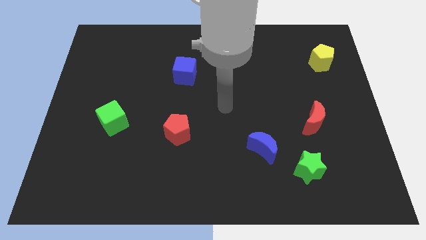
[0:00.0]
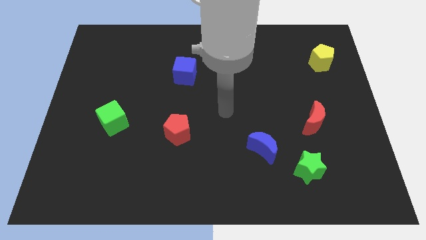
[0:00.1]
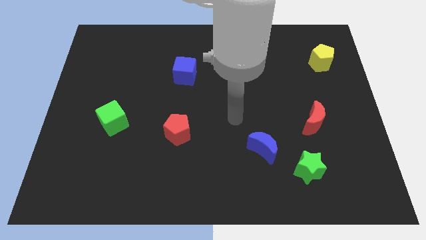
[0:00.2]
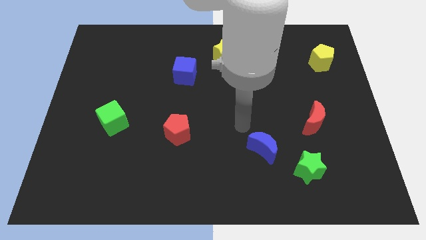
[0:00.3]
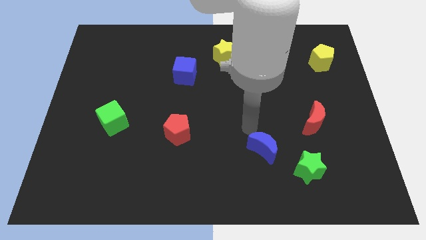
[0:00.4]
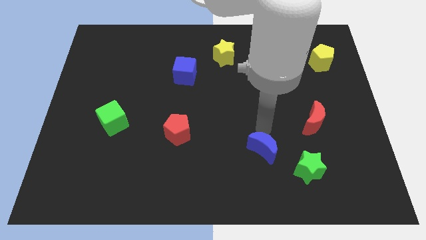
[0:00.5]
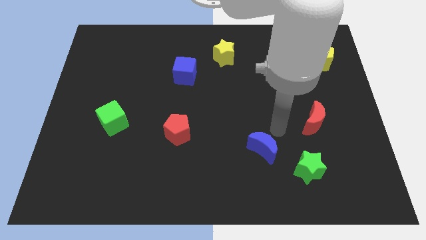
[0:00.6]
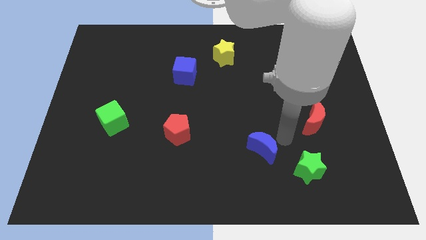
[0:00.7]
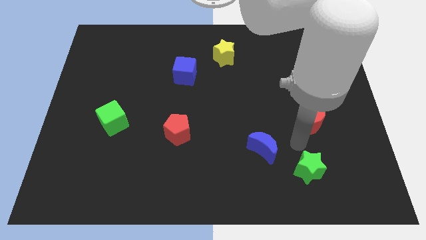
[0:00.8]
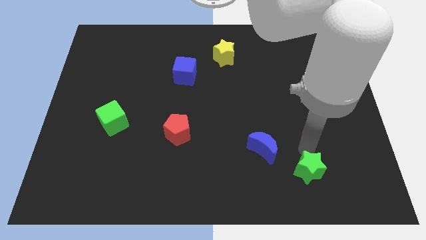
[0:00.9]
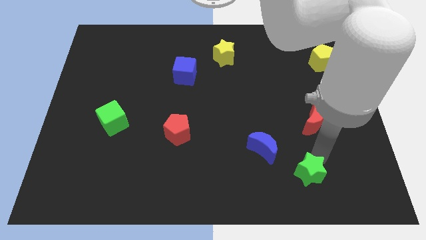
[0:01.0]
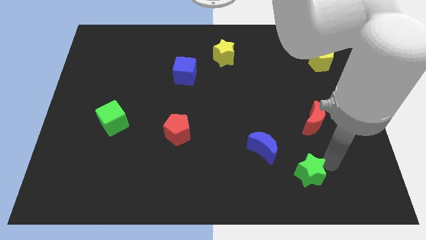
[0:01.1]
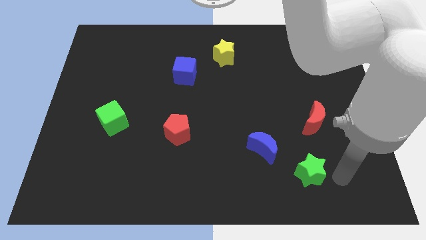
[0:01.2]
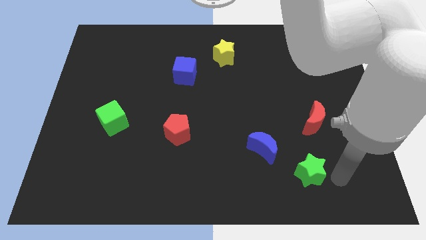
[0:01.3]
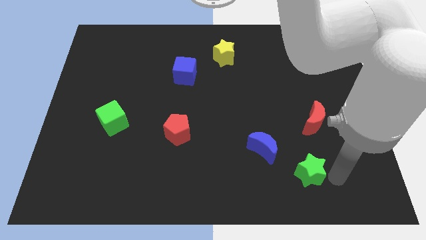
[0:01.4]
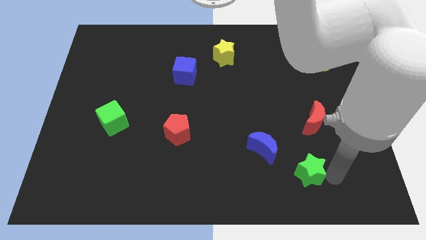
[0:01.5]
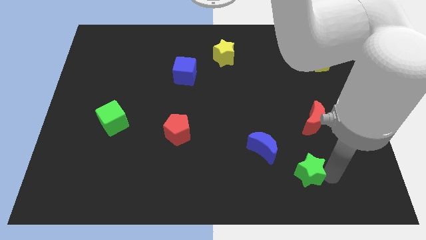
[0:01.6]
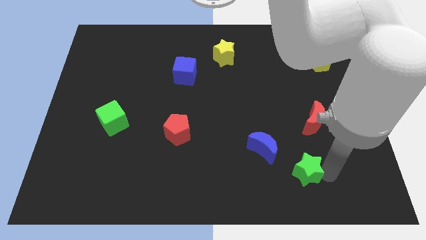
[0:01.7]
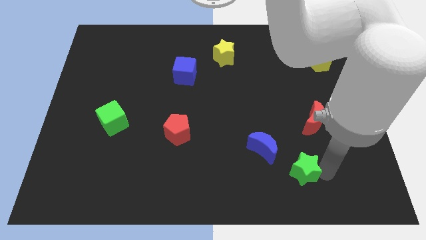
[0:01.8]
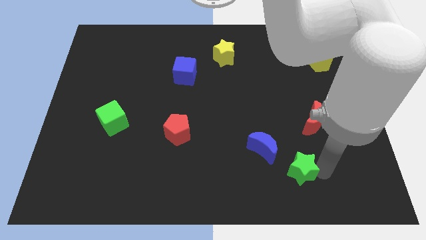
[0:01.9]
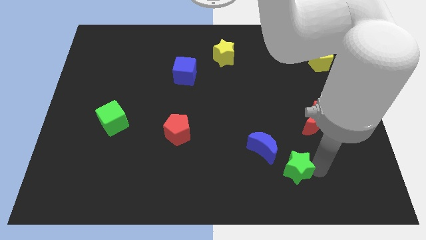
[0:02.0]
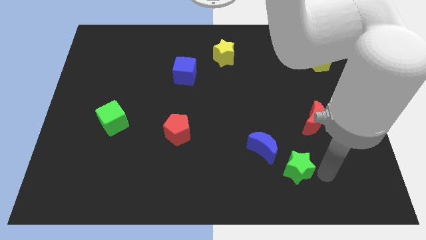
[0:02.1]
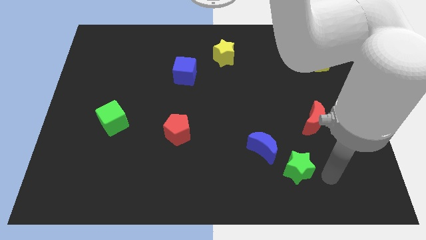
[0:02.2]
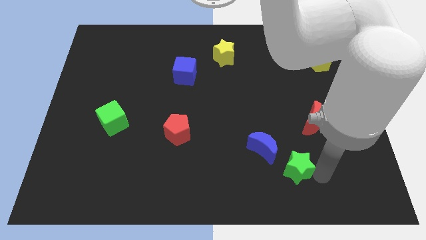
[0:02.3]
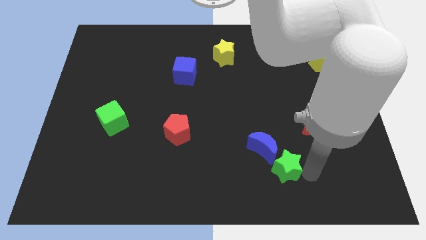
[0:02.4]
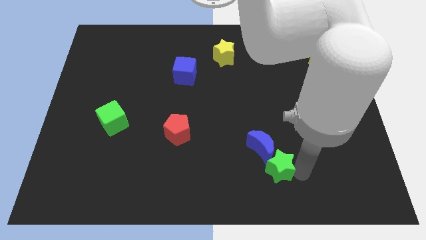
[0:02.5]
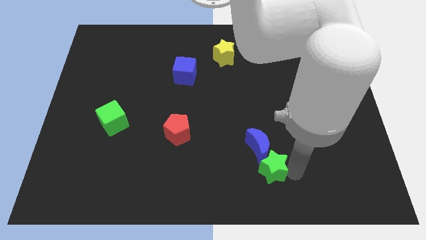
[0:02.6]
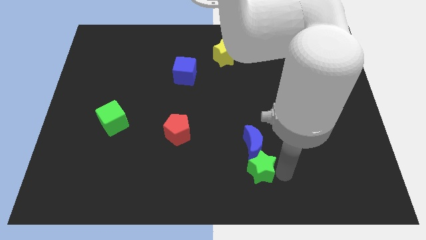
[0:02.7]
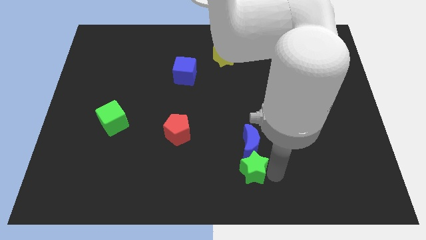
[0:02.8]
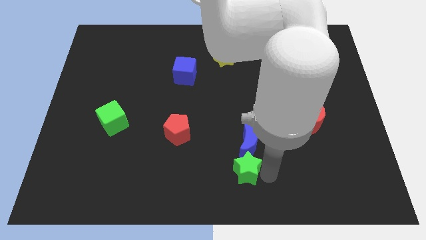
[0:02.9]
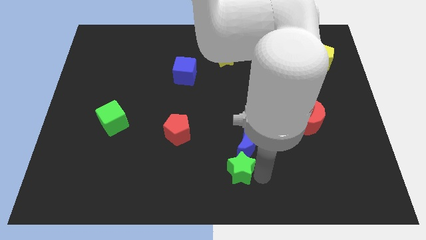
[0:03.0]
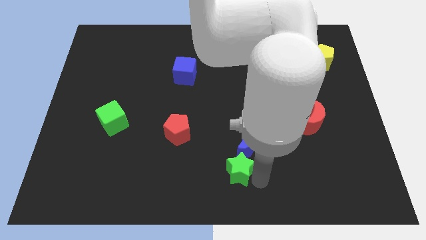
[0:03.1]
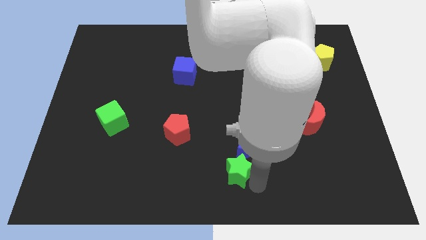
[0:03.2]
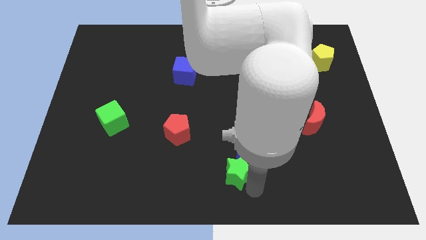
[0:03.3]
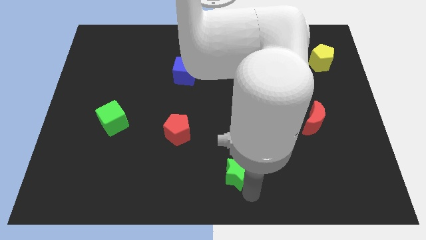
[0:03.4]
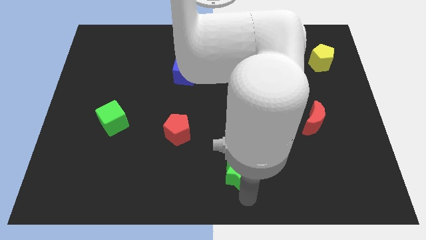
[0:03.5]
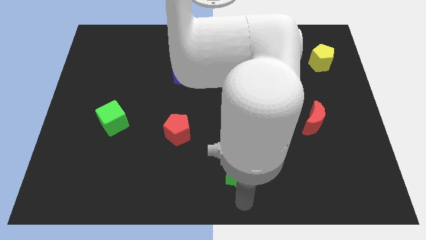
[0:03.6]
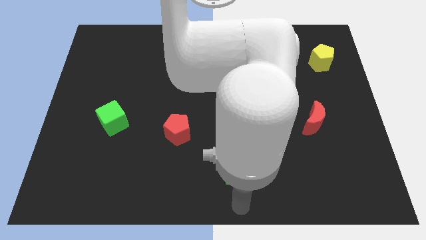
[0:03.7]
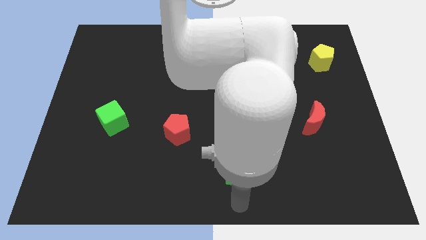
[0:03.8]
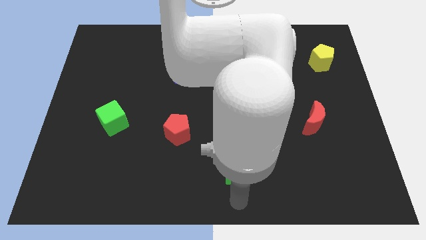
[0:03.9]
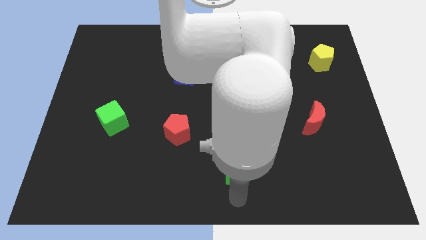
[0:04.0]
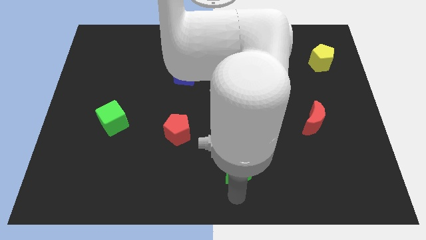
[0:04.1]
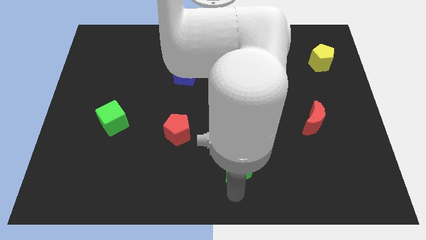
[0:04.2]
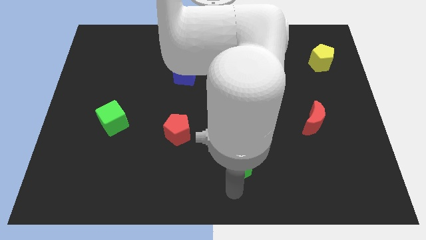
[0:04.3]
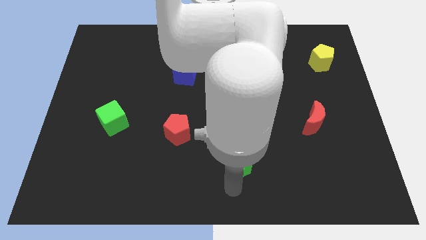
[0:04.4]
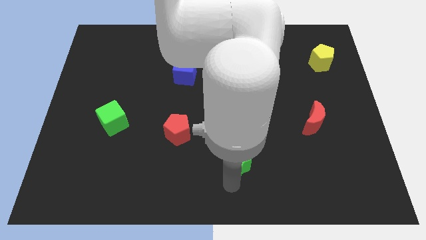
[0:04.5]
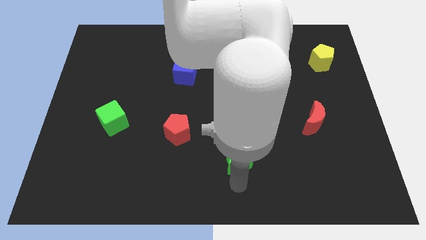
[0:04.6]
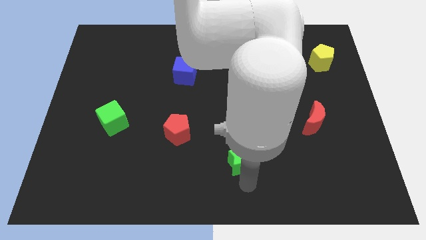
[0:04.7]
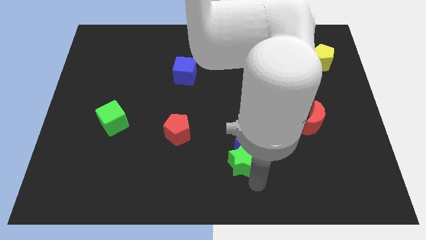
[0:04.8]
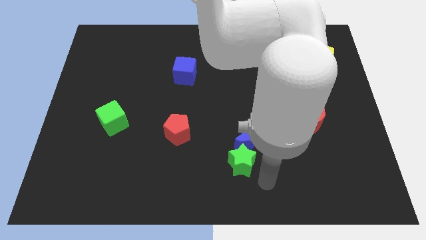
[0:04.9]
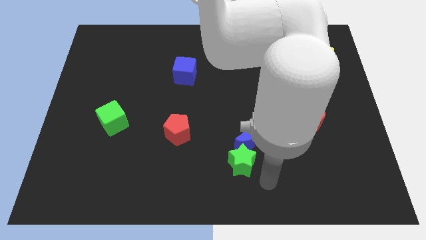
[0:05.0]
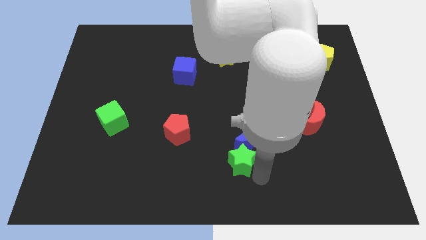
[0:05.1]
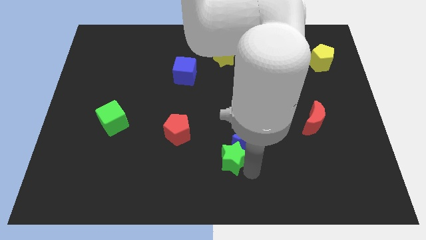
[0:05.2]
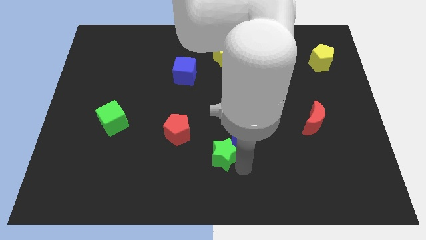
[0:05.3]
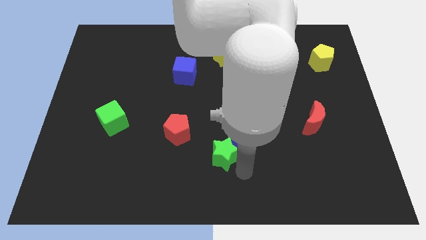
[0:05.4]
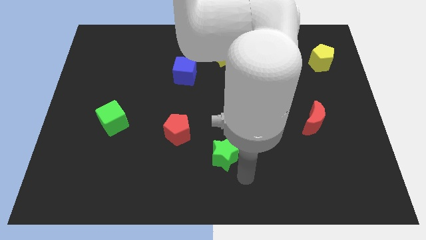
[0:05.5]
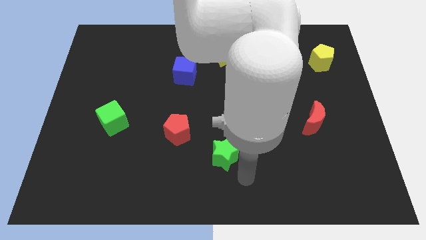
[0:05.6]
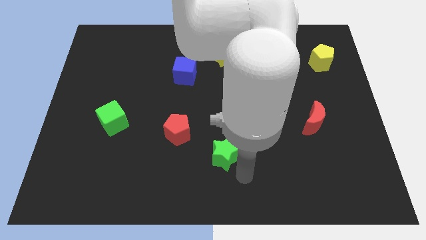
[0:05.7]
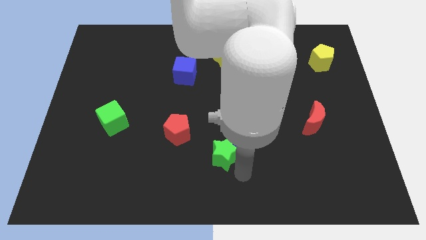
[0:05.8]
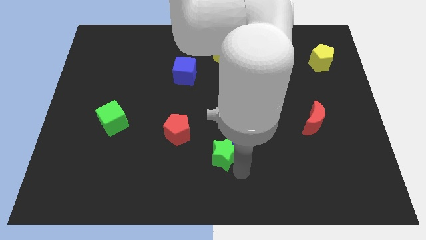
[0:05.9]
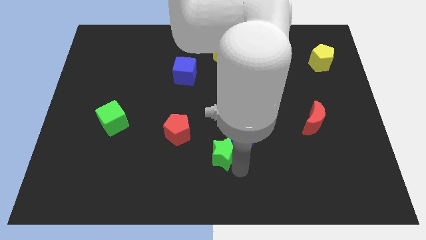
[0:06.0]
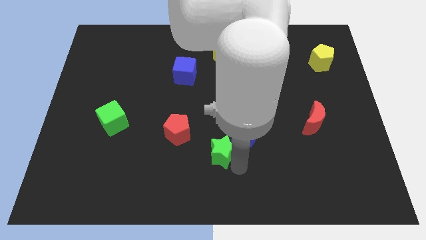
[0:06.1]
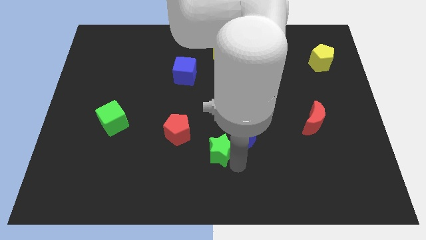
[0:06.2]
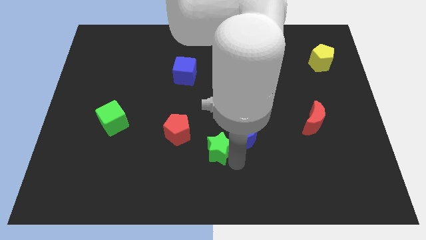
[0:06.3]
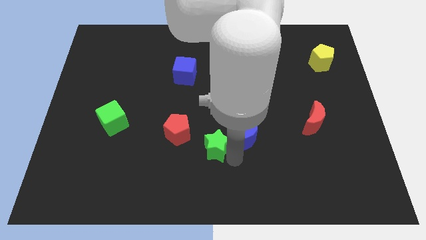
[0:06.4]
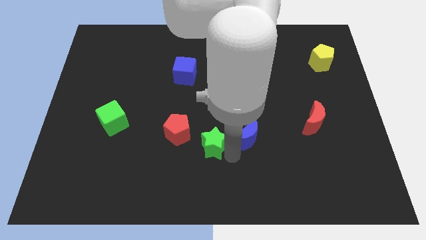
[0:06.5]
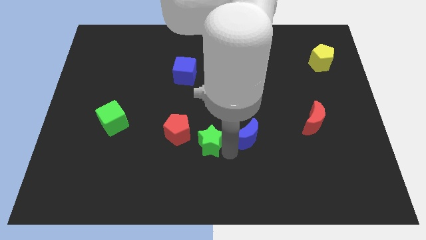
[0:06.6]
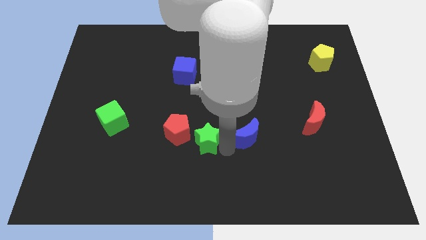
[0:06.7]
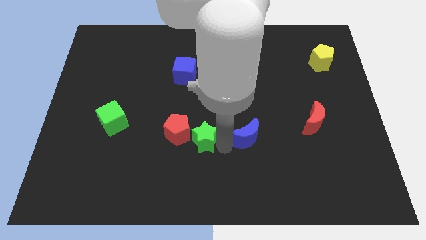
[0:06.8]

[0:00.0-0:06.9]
slide the green star close to the red pentagon
